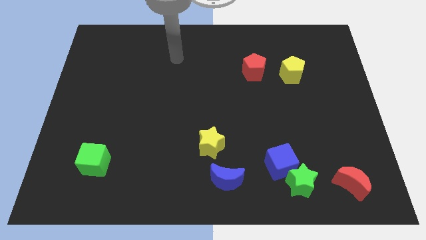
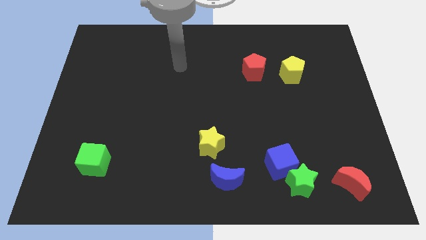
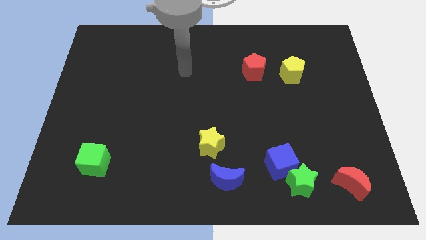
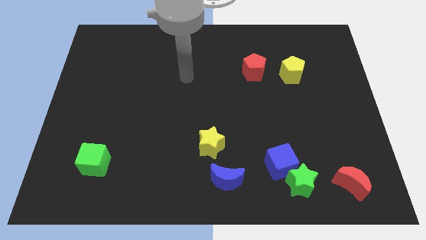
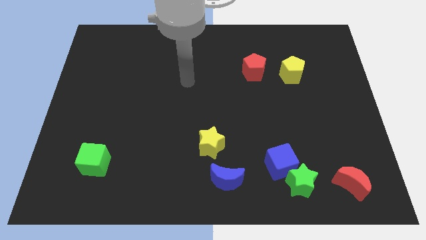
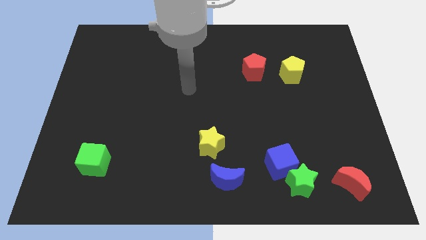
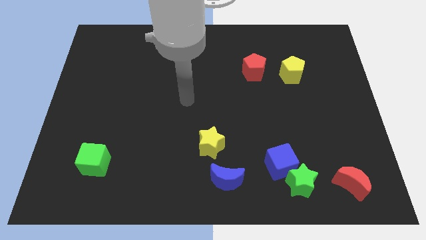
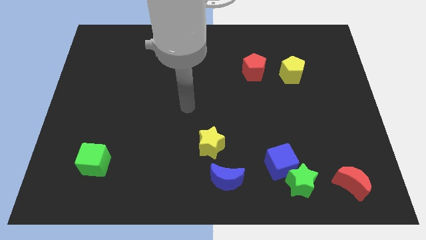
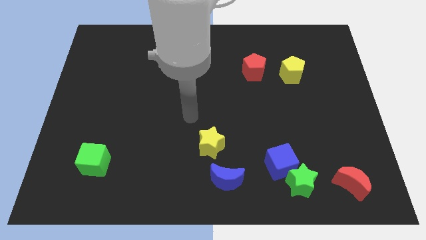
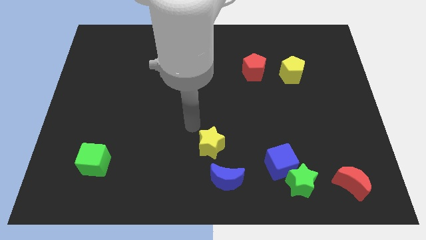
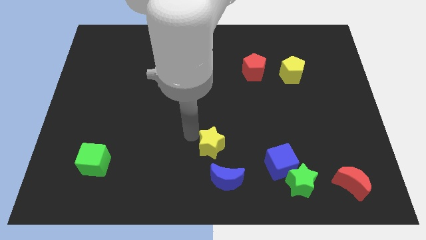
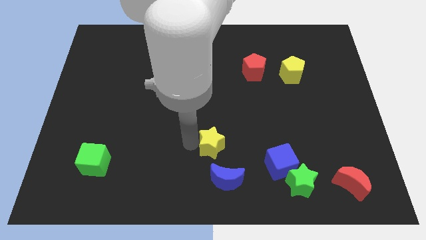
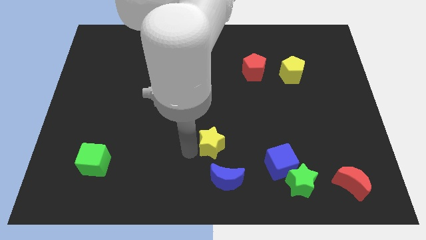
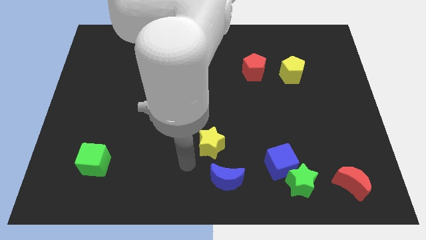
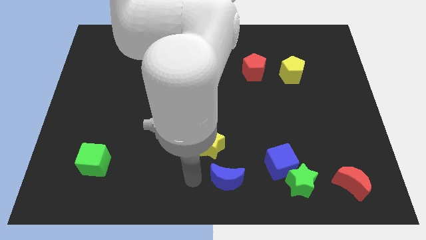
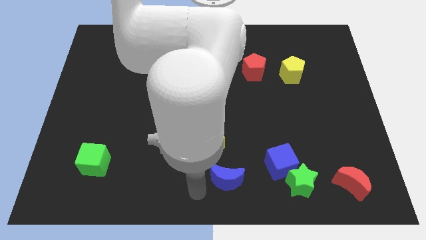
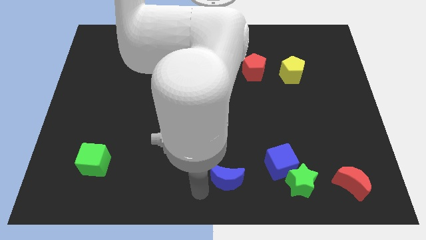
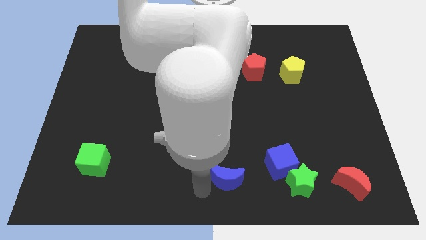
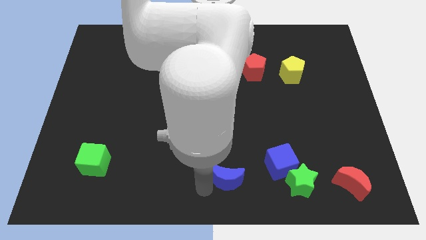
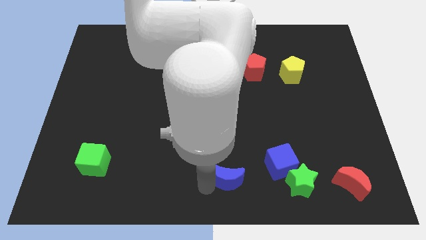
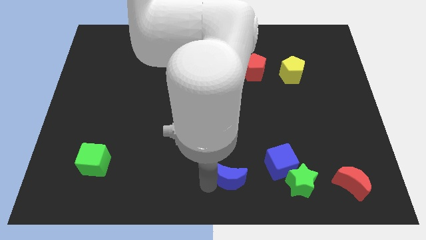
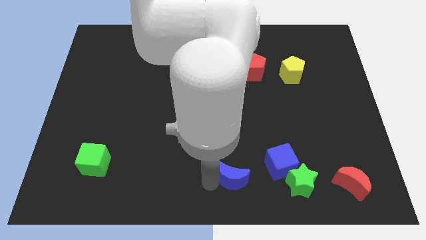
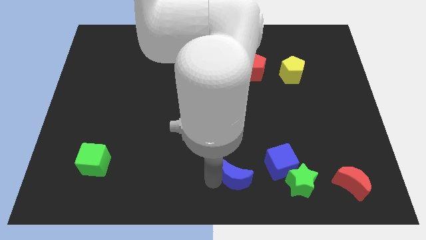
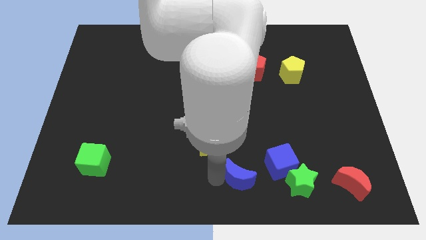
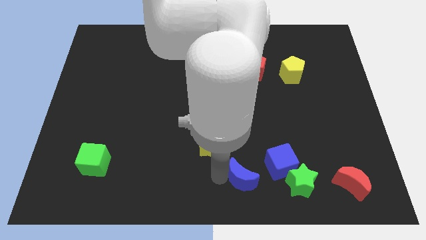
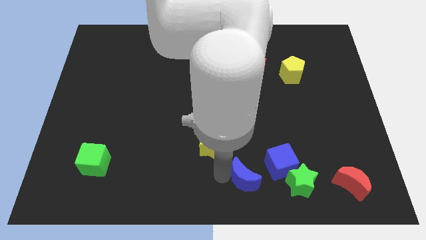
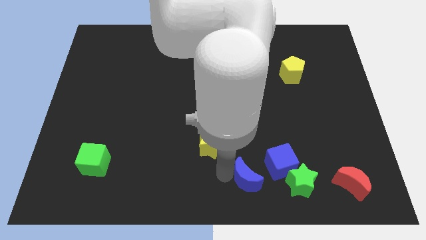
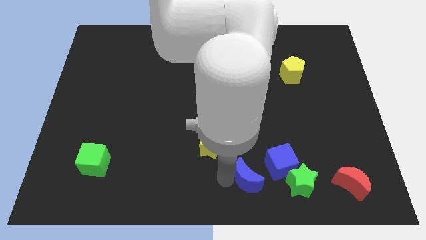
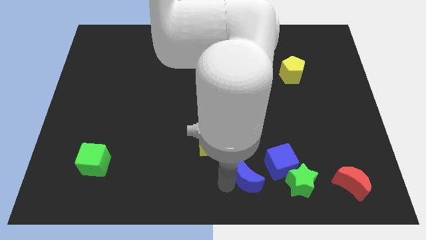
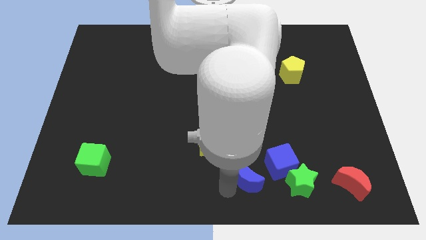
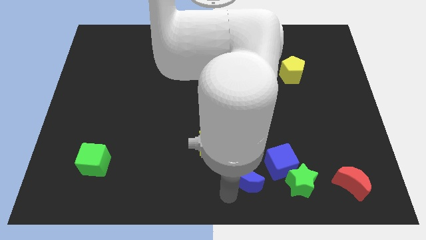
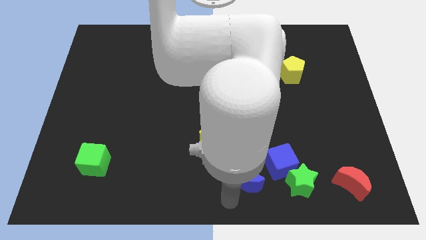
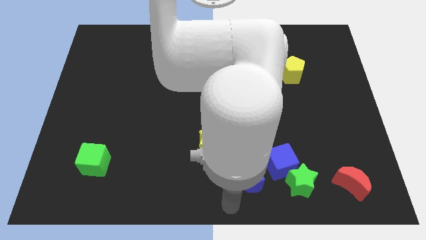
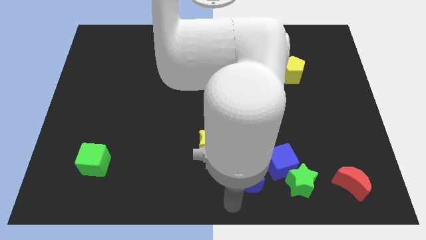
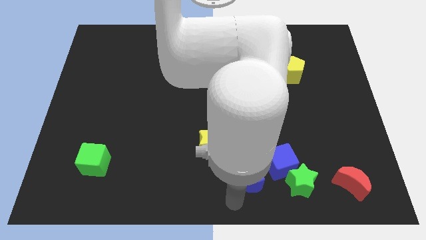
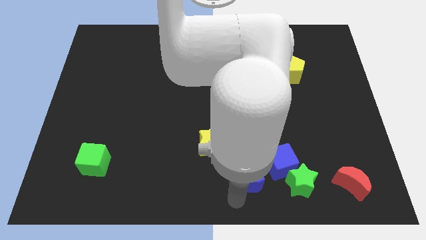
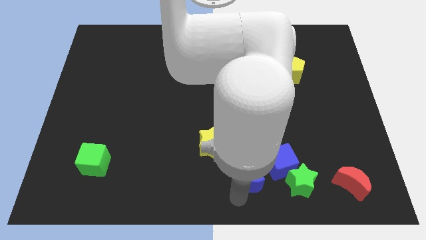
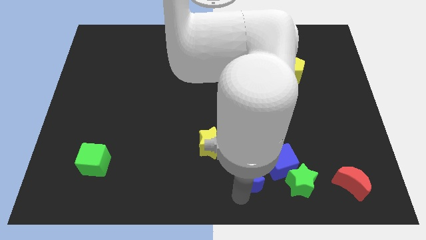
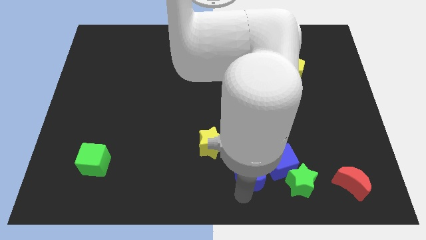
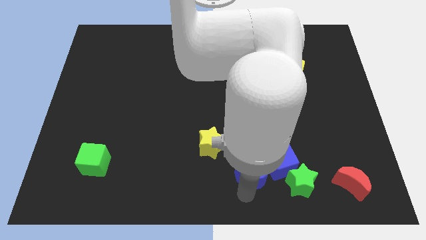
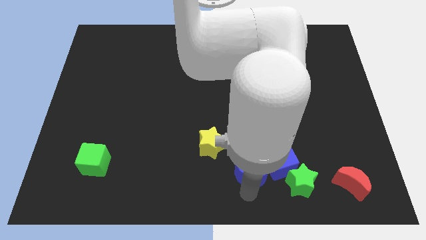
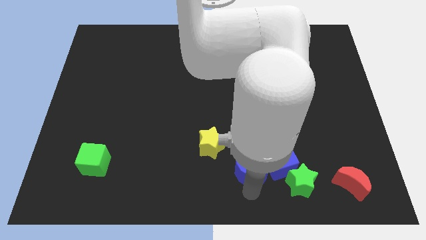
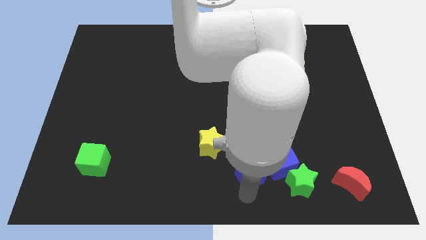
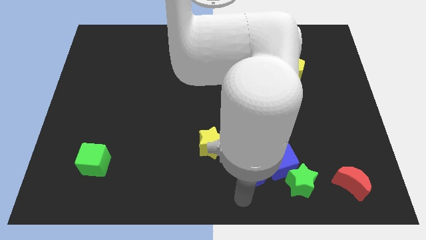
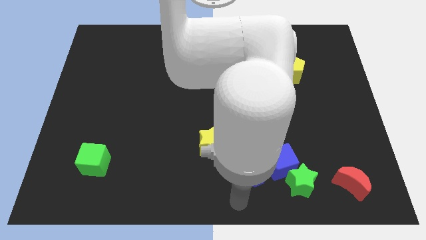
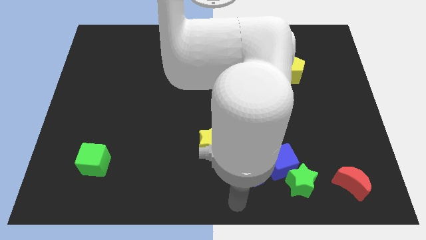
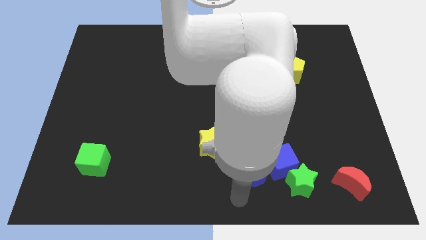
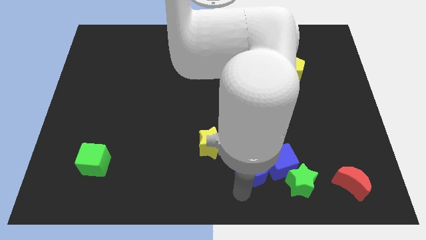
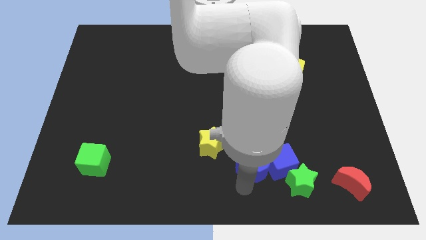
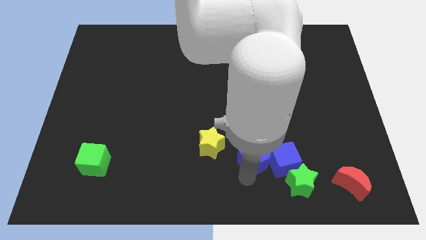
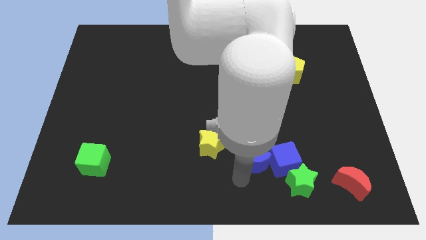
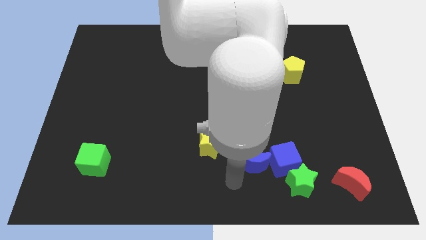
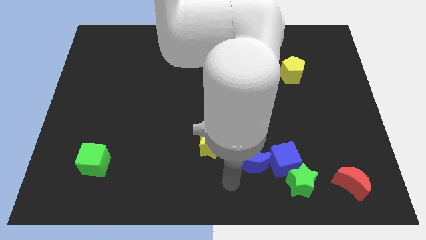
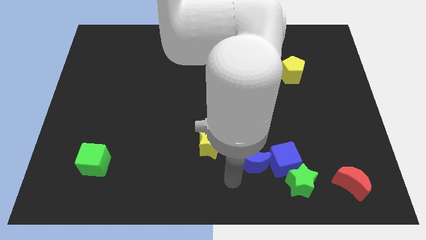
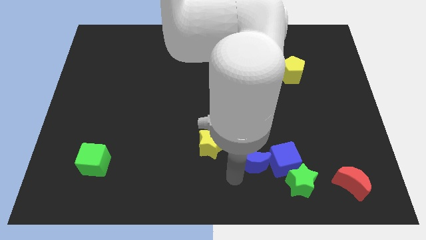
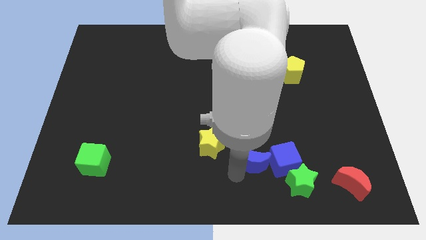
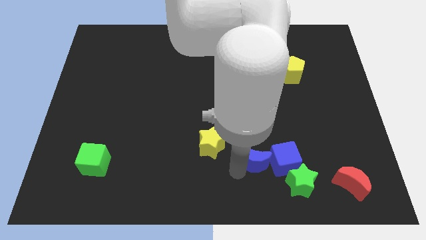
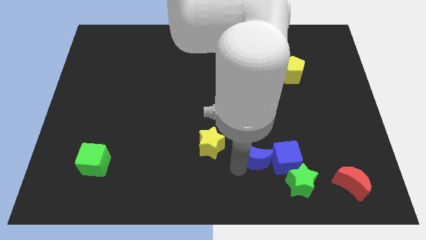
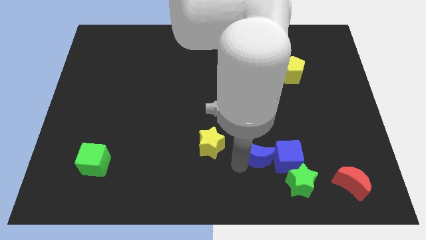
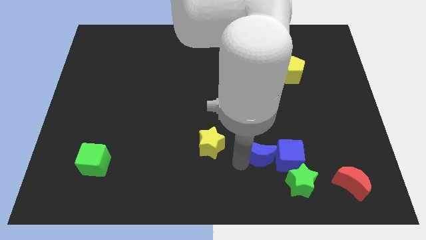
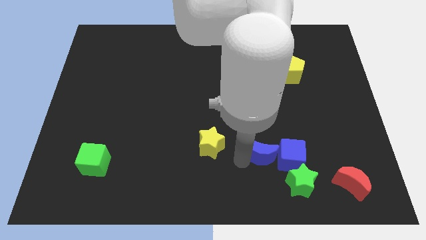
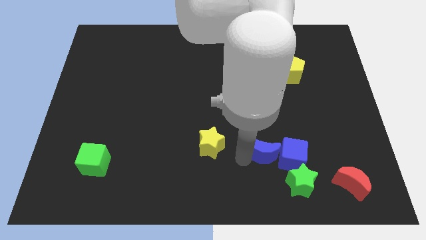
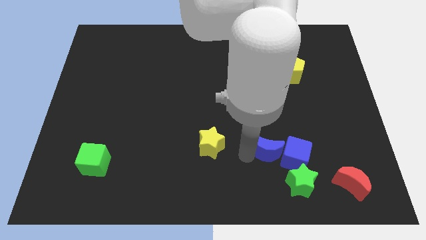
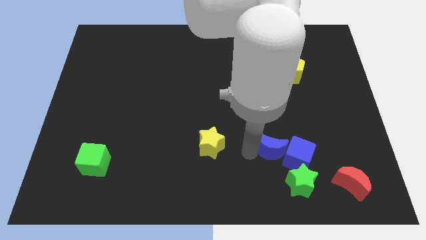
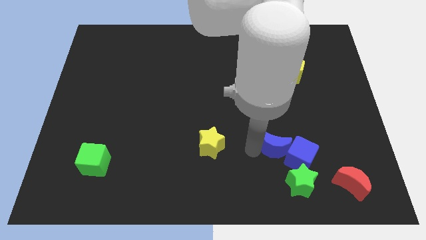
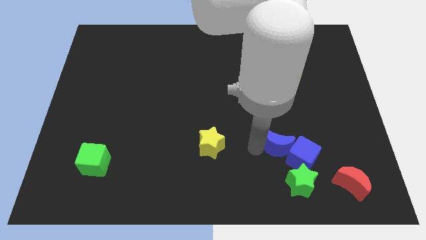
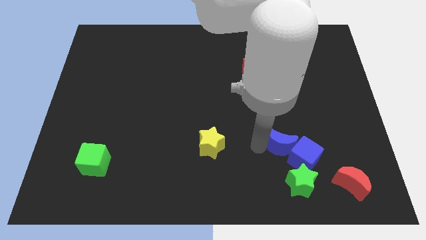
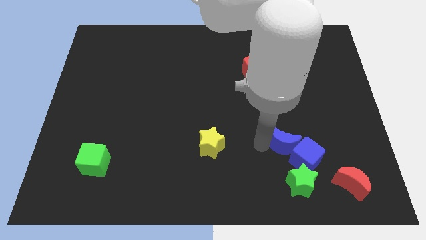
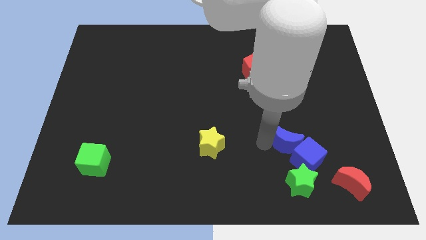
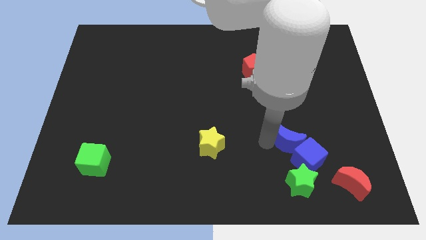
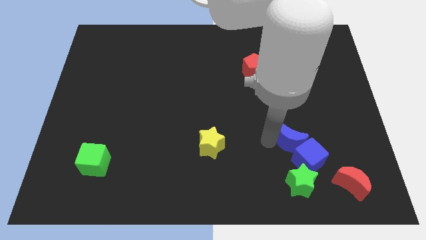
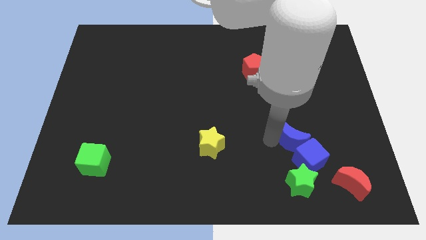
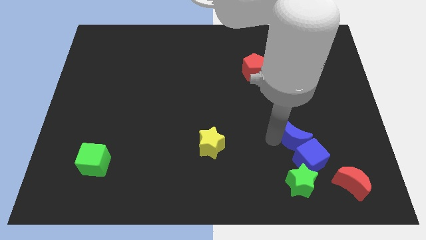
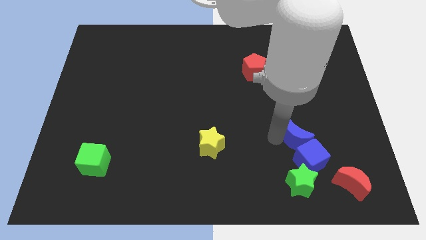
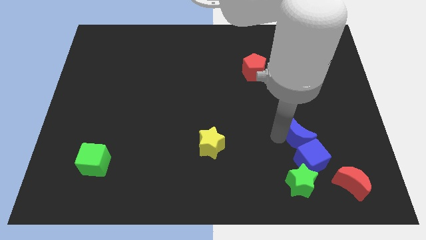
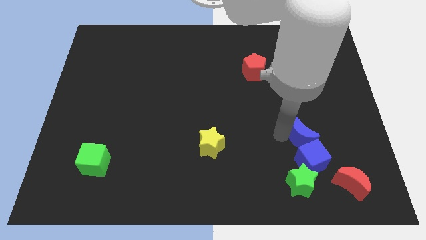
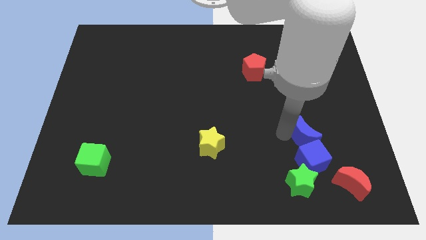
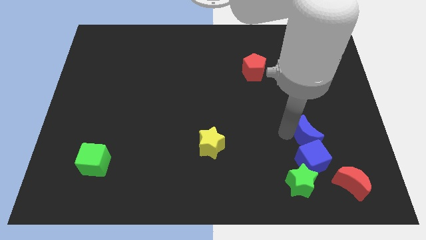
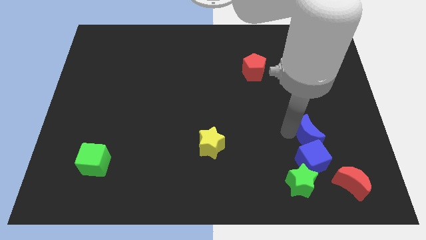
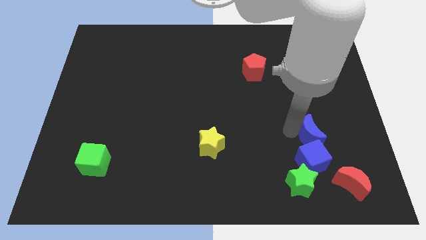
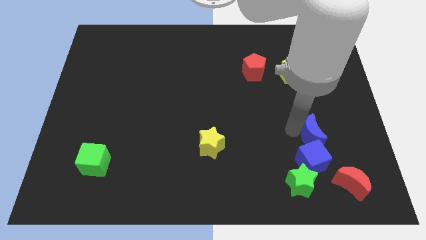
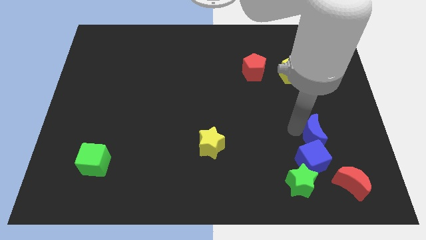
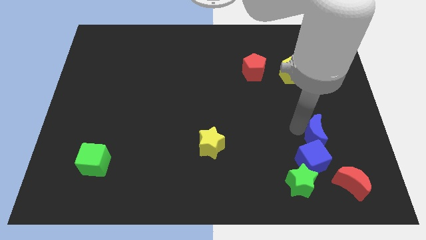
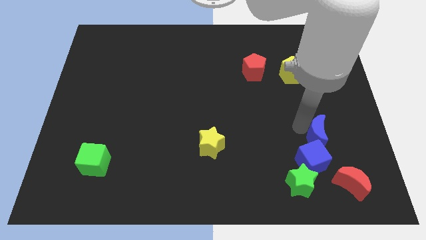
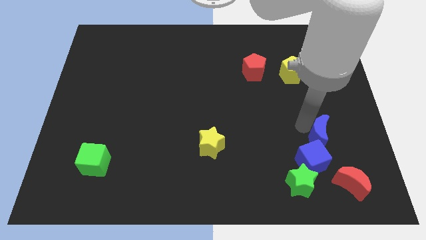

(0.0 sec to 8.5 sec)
slide the blue moon to the top of the red moon
